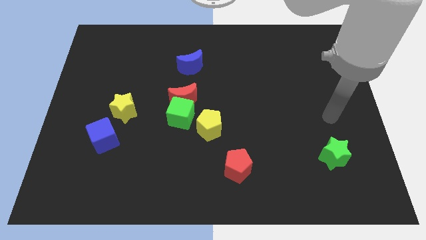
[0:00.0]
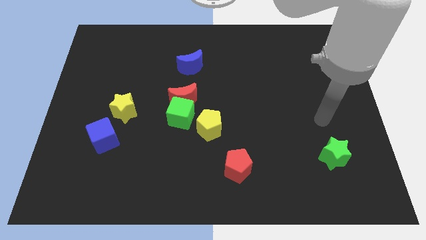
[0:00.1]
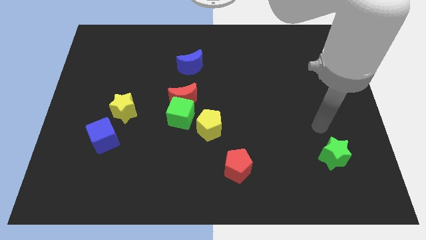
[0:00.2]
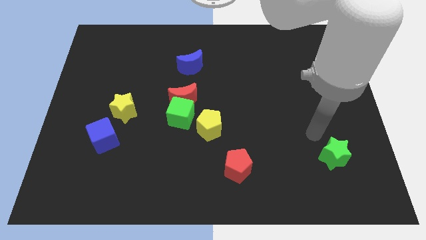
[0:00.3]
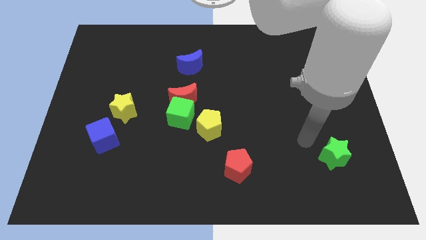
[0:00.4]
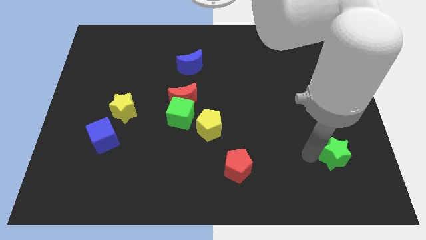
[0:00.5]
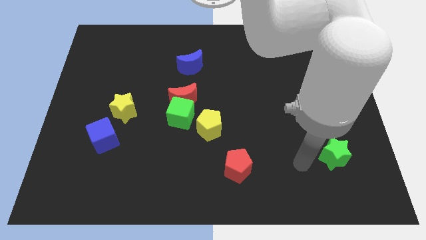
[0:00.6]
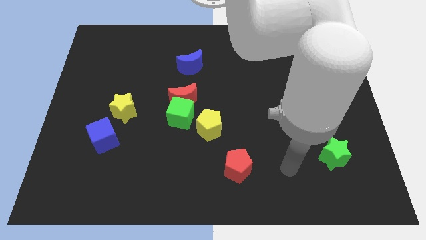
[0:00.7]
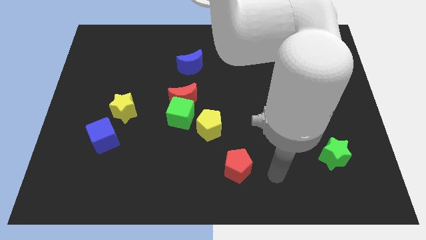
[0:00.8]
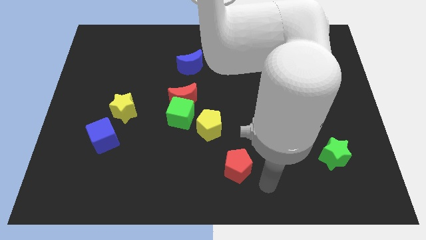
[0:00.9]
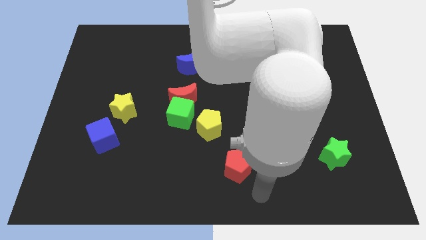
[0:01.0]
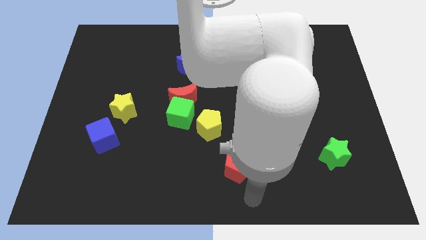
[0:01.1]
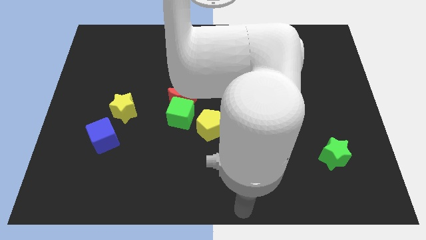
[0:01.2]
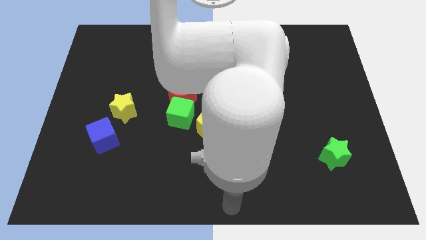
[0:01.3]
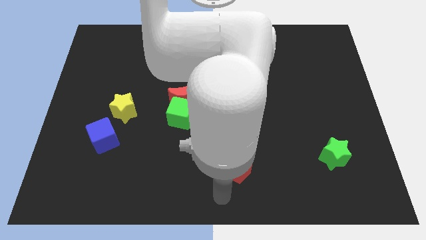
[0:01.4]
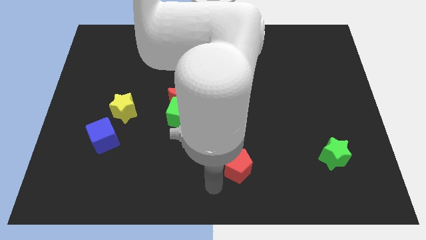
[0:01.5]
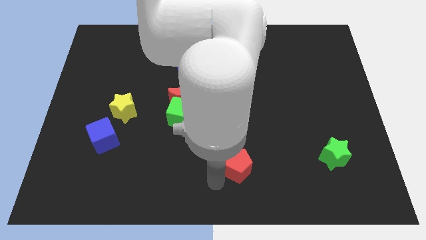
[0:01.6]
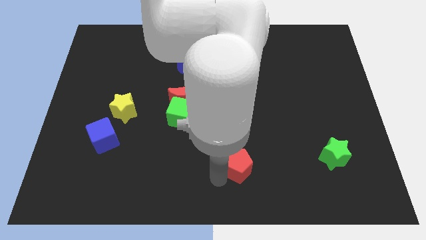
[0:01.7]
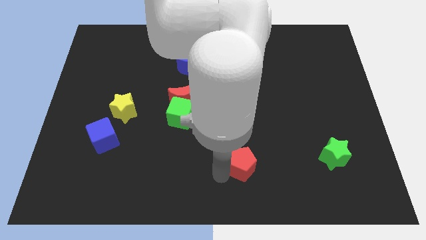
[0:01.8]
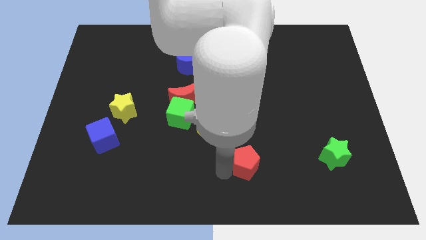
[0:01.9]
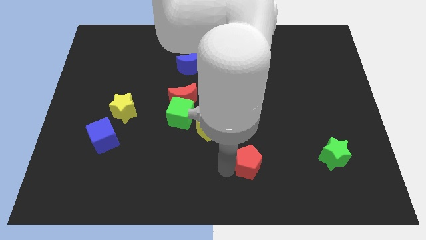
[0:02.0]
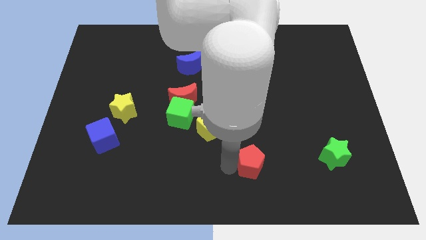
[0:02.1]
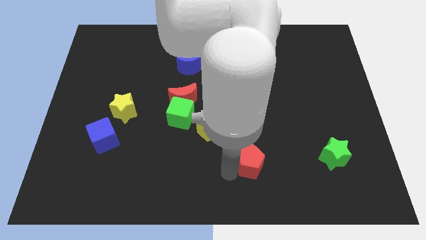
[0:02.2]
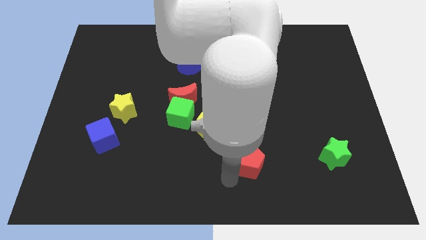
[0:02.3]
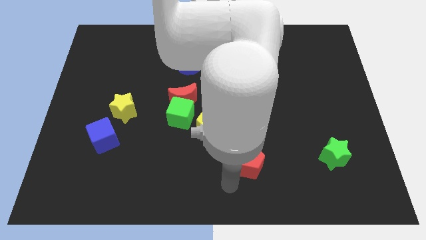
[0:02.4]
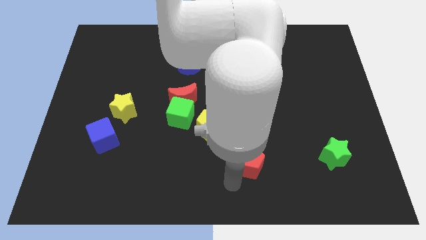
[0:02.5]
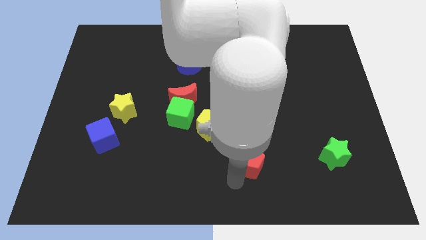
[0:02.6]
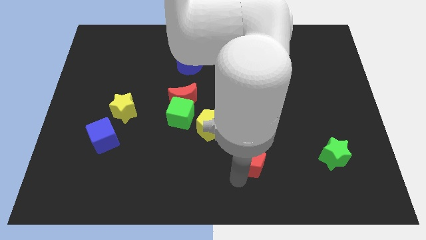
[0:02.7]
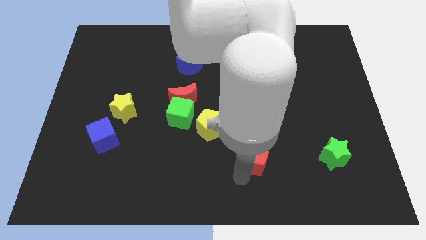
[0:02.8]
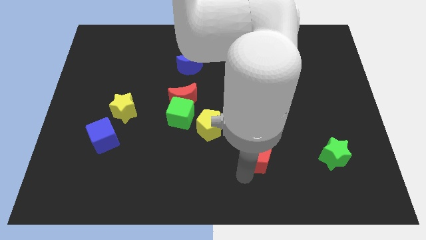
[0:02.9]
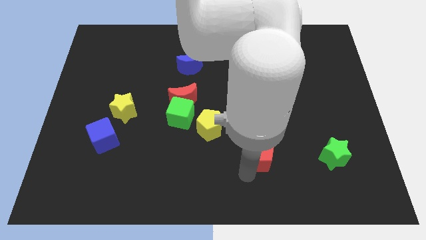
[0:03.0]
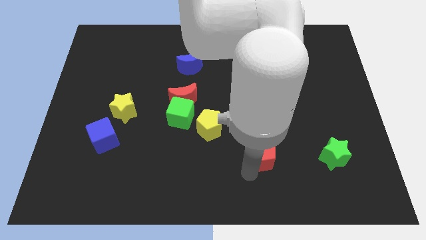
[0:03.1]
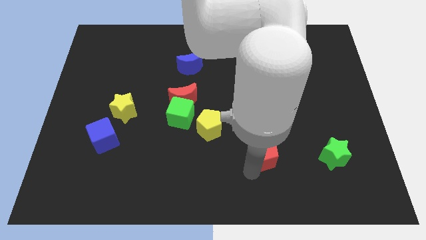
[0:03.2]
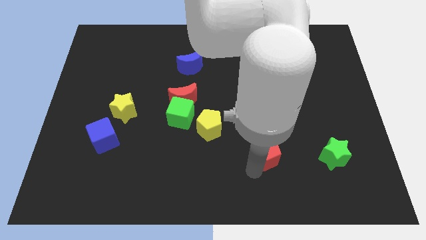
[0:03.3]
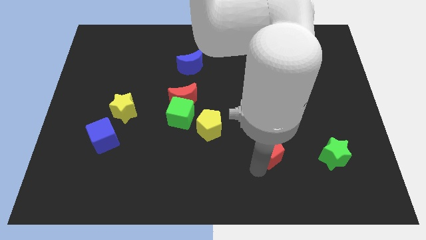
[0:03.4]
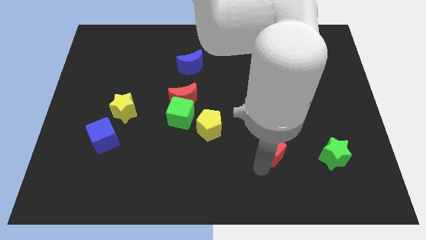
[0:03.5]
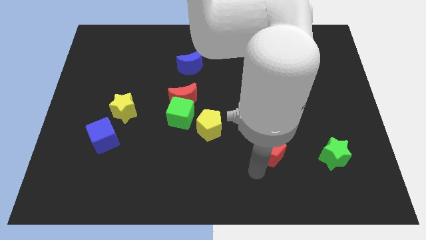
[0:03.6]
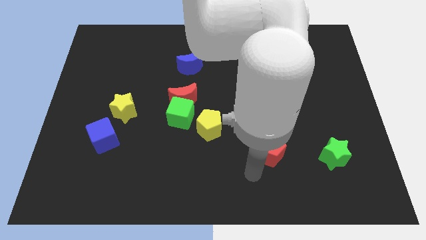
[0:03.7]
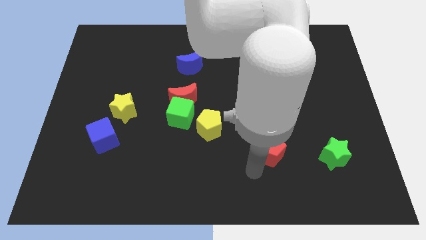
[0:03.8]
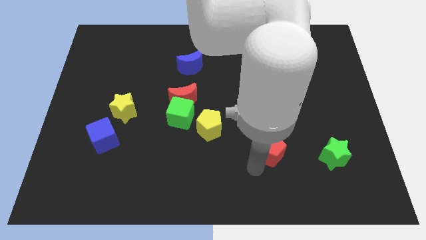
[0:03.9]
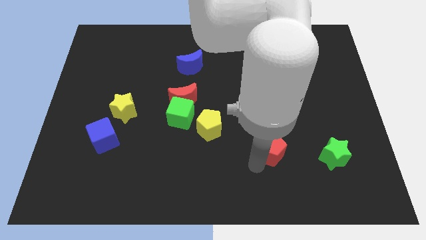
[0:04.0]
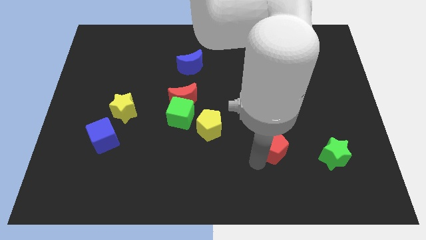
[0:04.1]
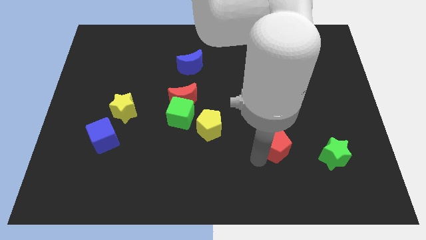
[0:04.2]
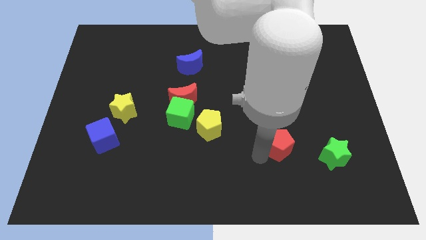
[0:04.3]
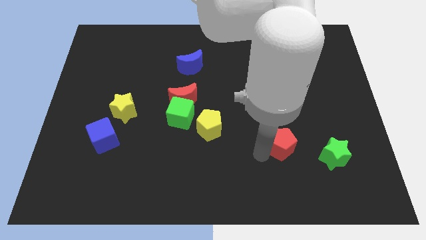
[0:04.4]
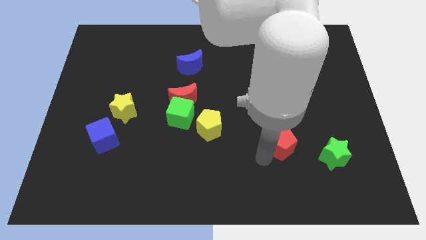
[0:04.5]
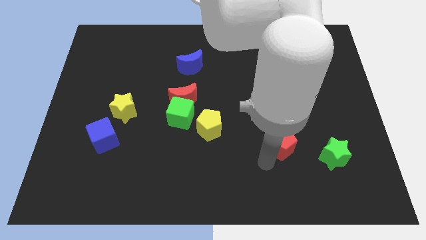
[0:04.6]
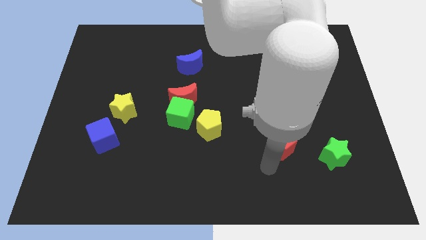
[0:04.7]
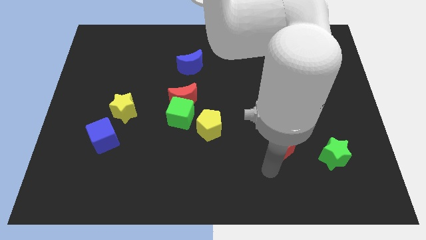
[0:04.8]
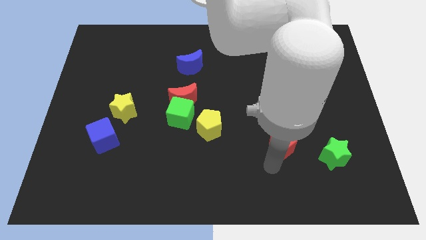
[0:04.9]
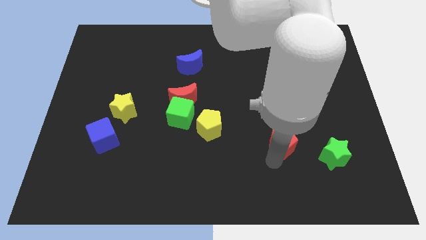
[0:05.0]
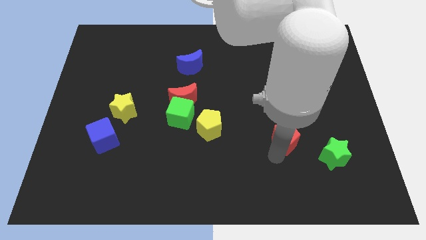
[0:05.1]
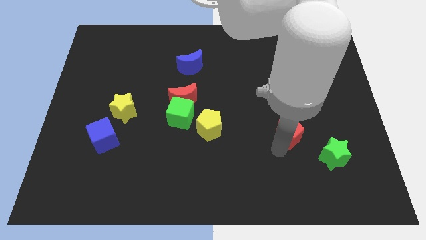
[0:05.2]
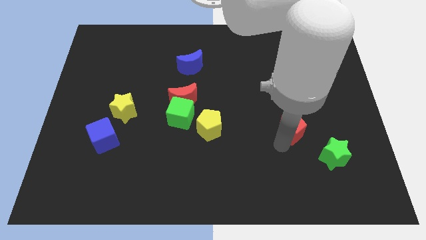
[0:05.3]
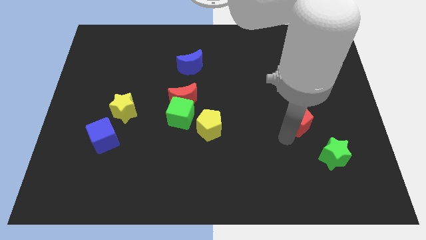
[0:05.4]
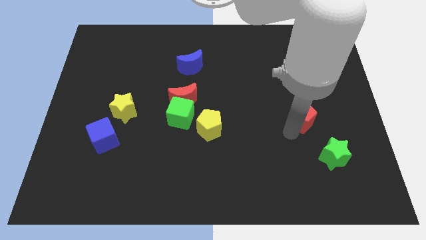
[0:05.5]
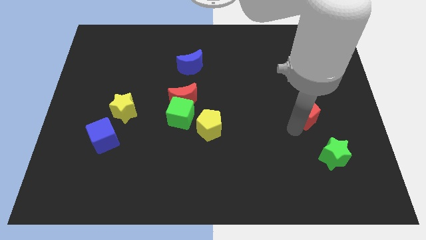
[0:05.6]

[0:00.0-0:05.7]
push the red pentagon up and to the right diagonally

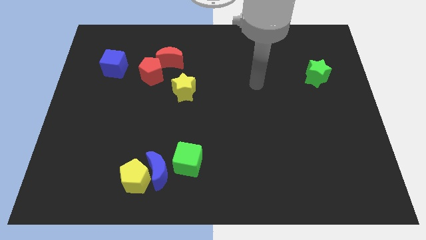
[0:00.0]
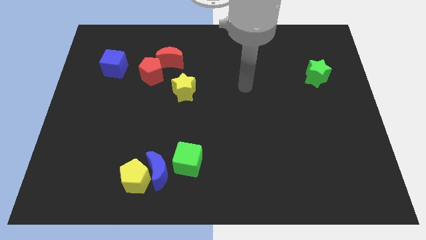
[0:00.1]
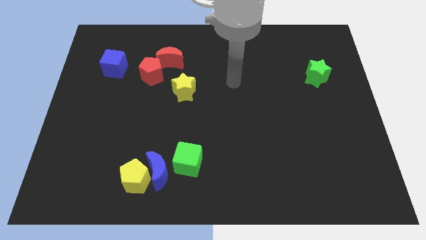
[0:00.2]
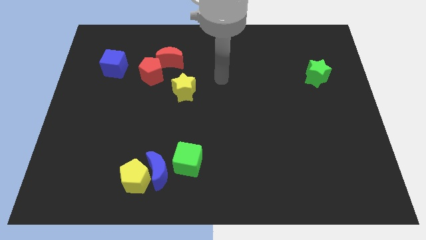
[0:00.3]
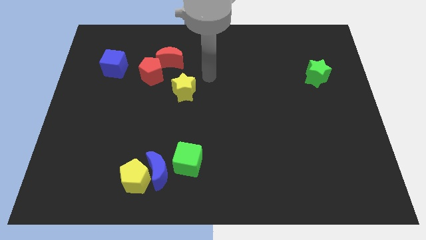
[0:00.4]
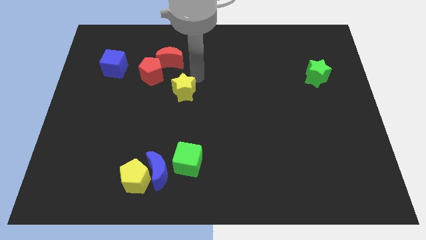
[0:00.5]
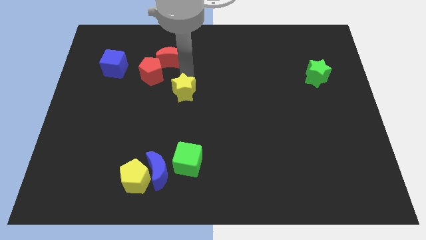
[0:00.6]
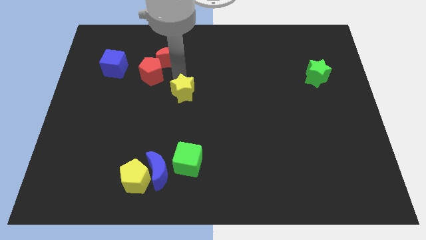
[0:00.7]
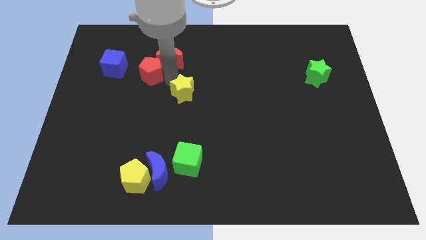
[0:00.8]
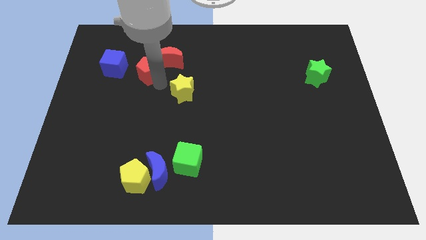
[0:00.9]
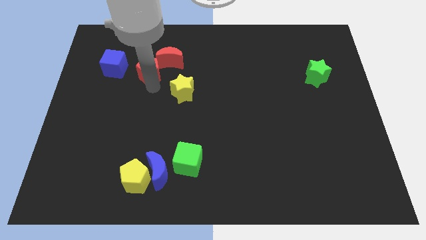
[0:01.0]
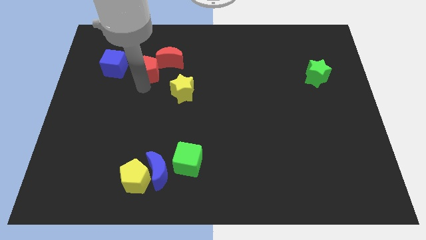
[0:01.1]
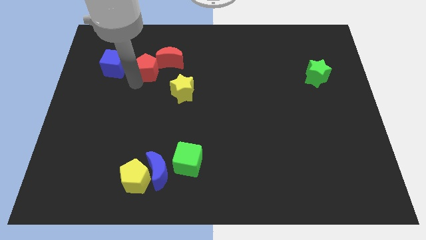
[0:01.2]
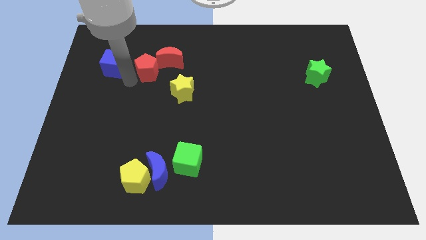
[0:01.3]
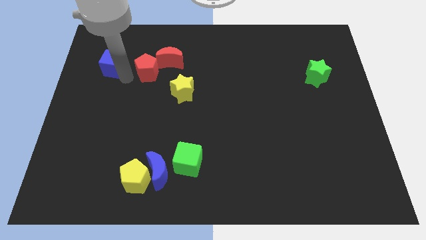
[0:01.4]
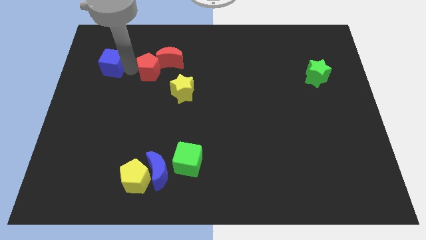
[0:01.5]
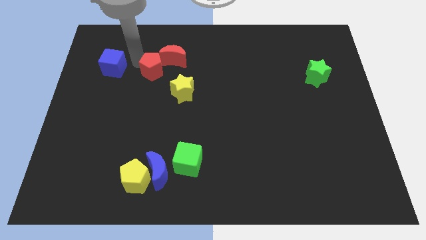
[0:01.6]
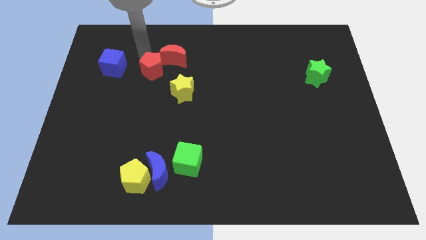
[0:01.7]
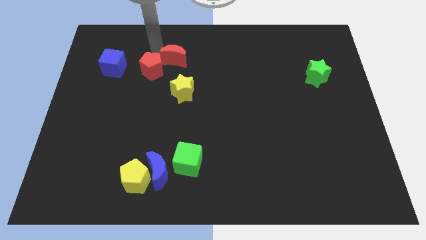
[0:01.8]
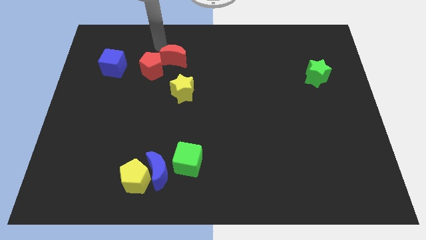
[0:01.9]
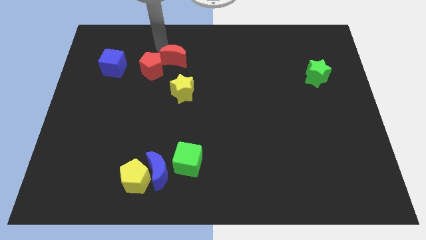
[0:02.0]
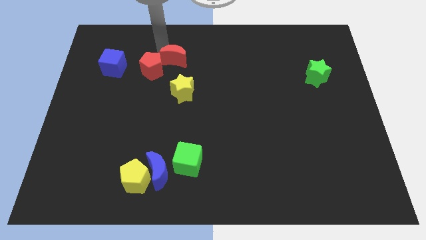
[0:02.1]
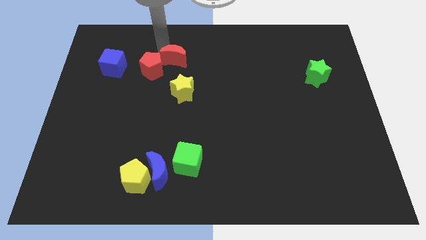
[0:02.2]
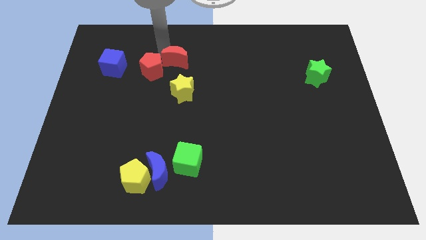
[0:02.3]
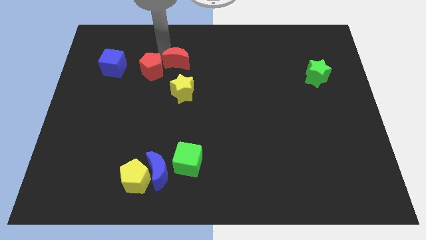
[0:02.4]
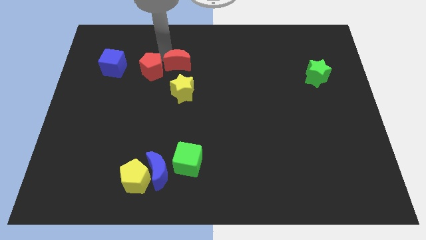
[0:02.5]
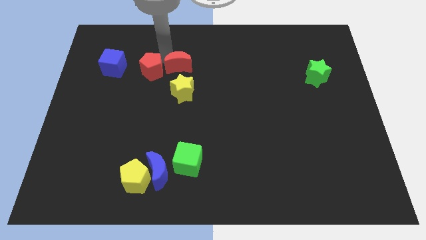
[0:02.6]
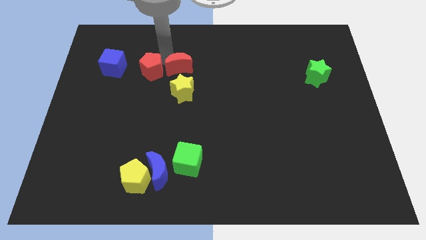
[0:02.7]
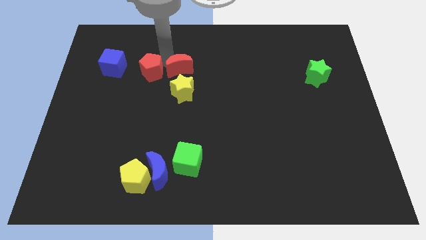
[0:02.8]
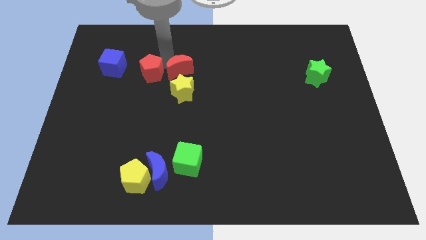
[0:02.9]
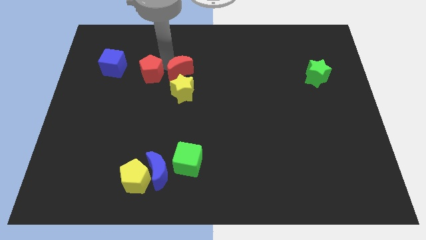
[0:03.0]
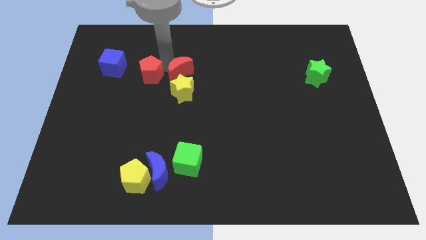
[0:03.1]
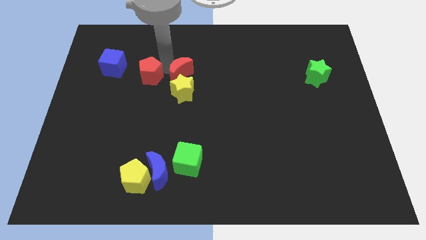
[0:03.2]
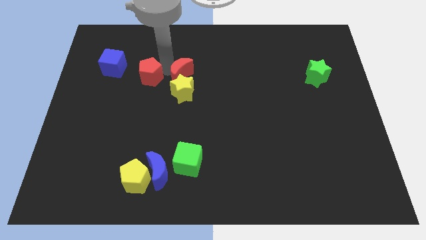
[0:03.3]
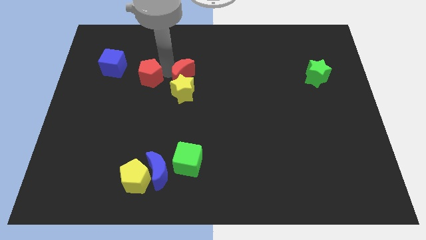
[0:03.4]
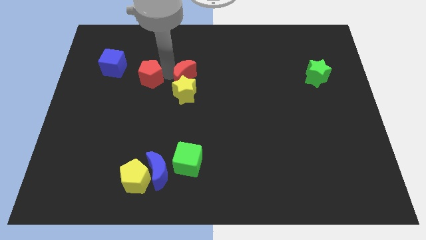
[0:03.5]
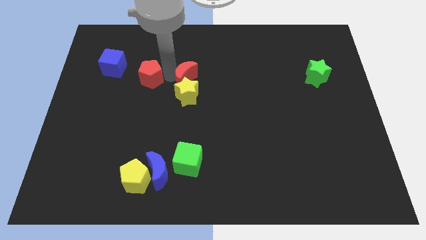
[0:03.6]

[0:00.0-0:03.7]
slightly slide the red moon diagonally downwards and to the right
